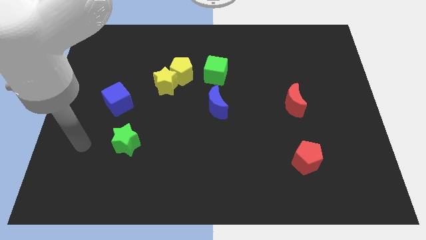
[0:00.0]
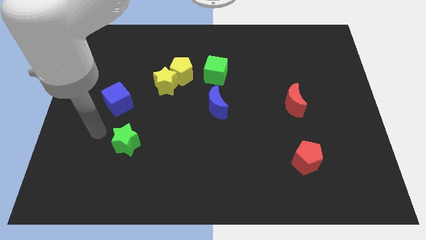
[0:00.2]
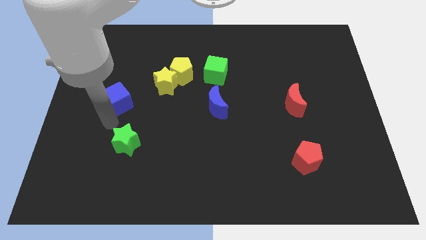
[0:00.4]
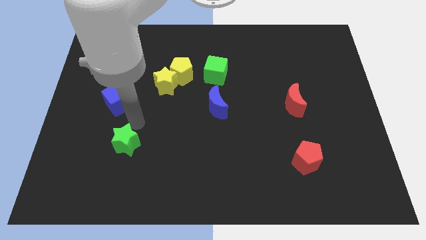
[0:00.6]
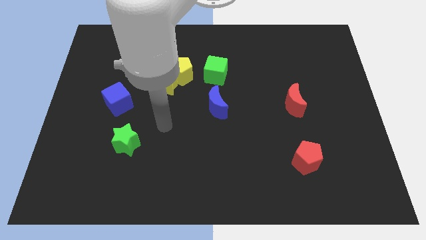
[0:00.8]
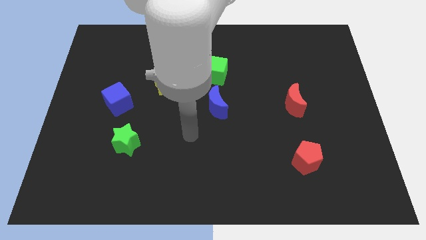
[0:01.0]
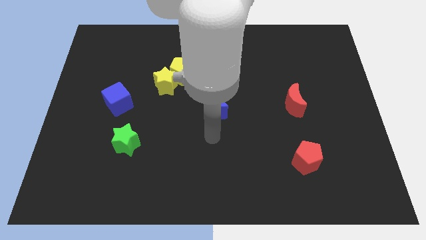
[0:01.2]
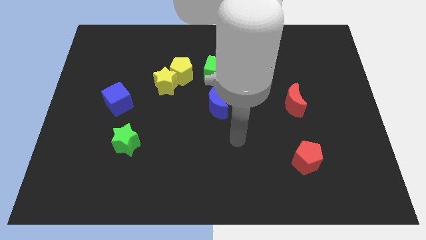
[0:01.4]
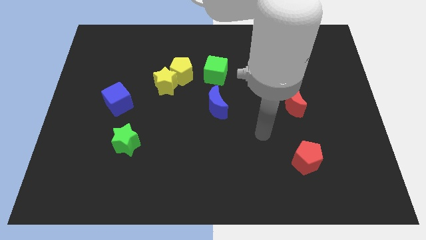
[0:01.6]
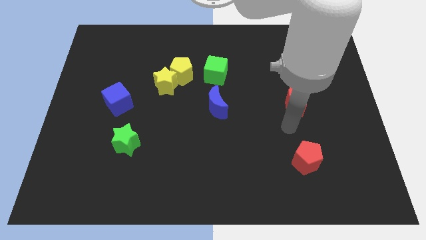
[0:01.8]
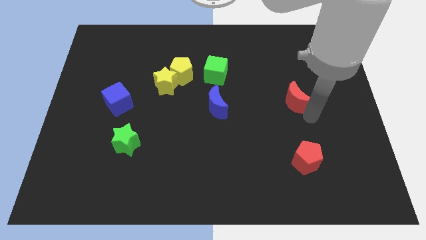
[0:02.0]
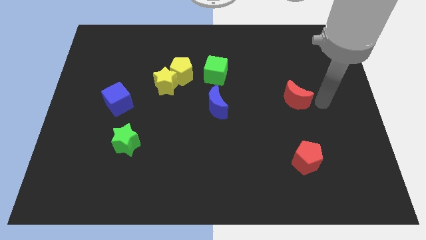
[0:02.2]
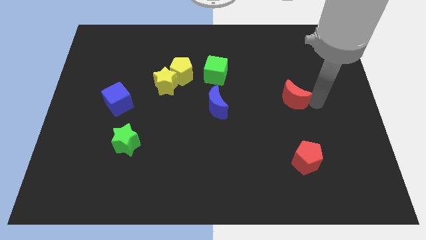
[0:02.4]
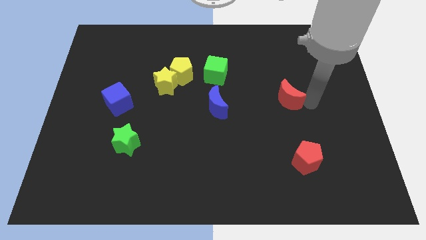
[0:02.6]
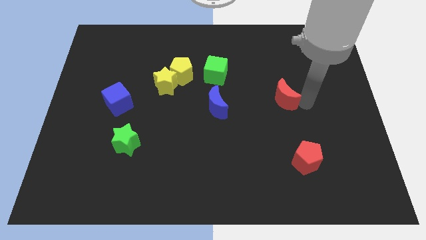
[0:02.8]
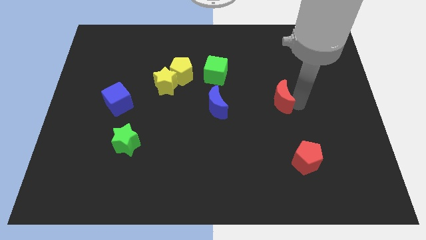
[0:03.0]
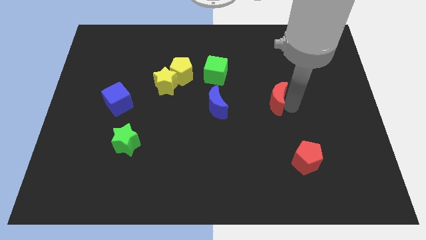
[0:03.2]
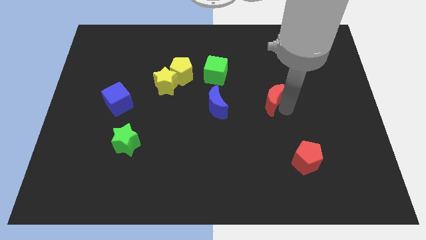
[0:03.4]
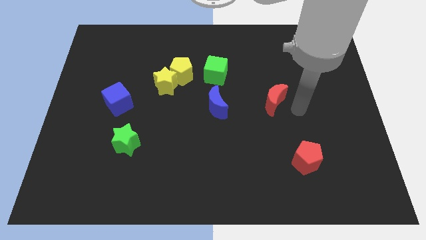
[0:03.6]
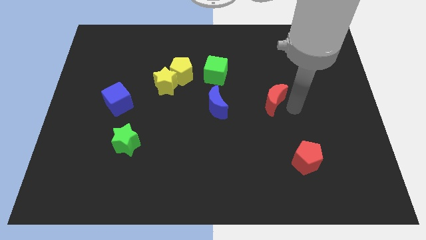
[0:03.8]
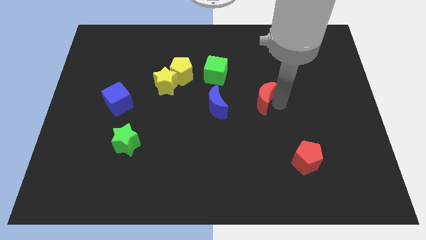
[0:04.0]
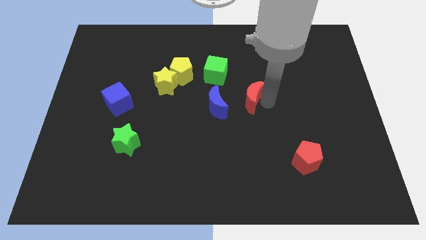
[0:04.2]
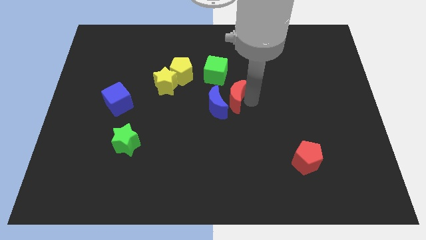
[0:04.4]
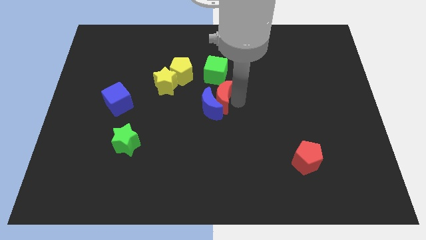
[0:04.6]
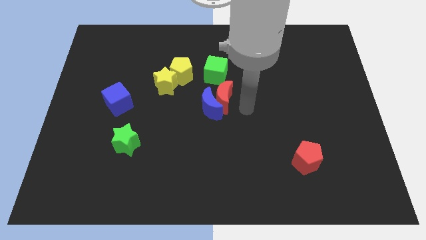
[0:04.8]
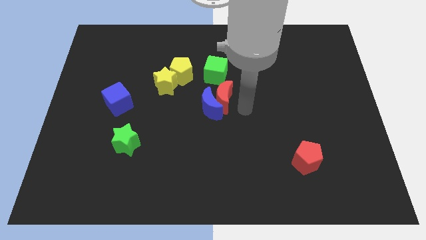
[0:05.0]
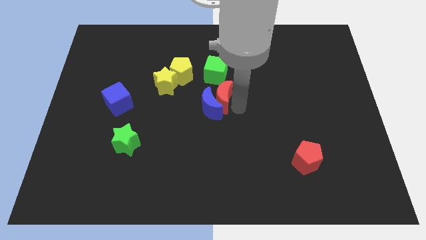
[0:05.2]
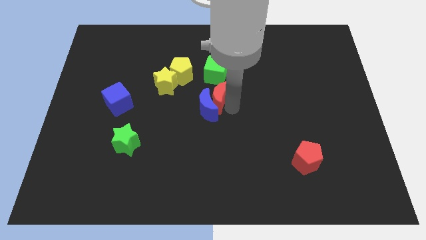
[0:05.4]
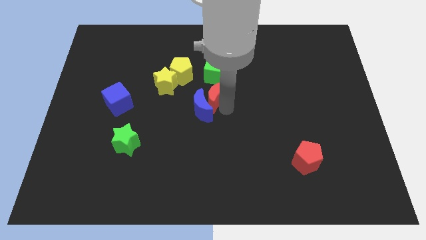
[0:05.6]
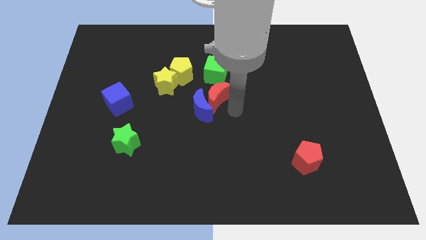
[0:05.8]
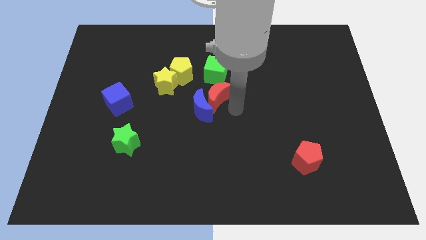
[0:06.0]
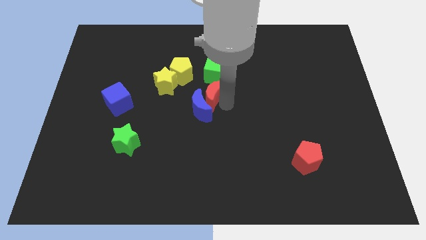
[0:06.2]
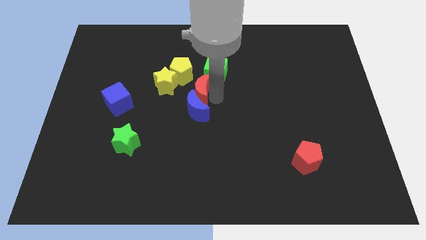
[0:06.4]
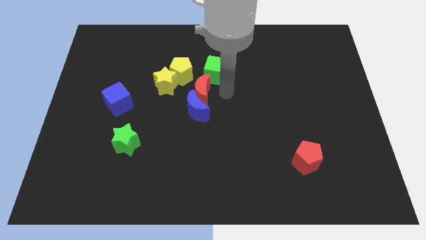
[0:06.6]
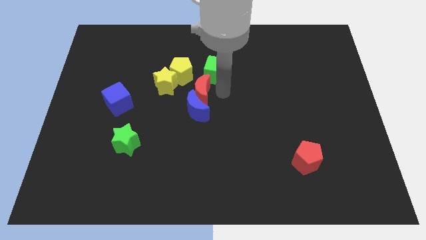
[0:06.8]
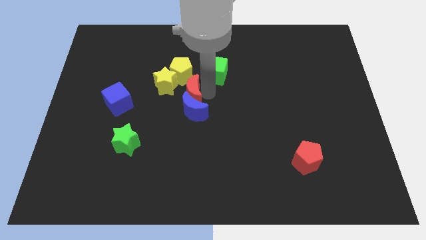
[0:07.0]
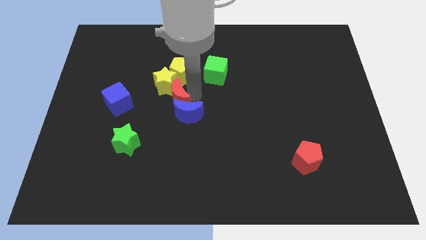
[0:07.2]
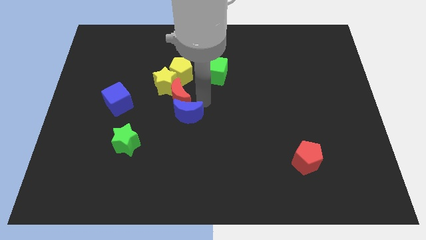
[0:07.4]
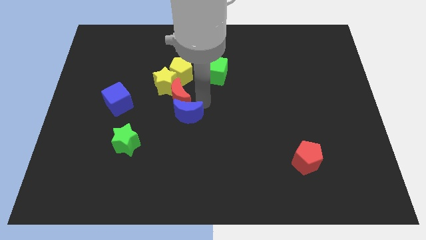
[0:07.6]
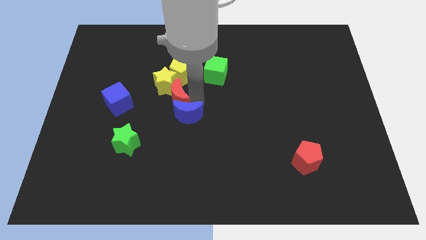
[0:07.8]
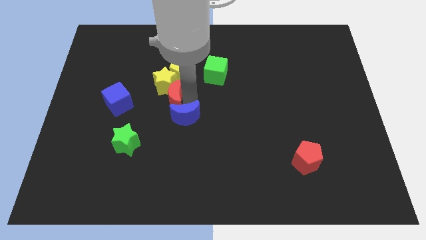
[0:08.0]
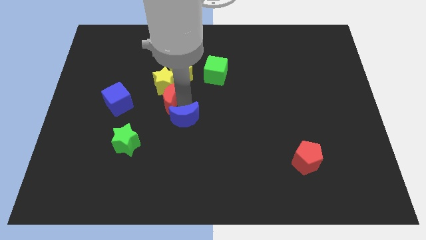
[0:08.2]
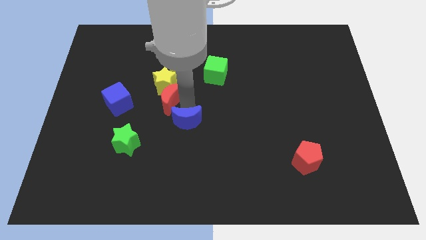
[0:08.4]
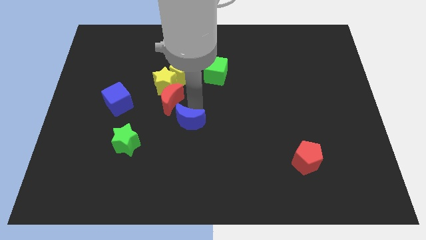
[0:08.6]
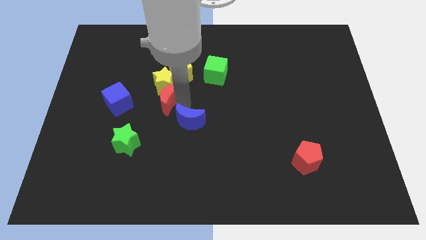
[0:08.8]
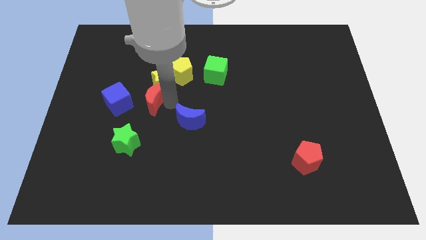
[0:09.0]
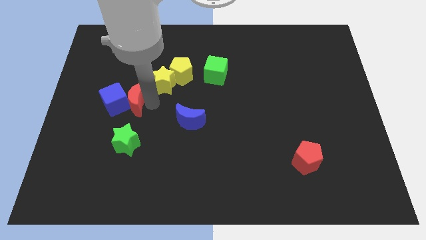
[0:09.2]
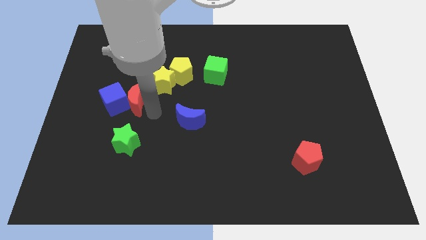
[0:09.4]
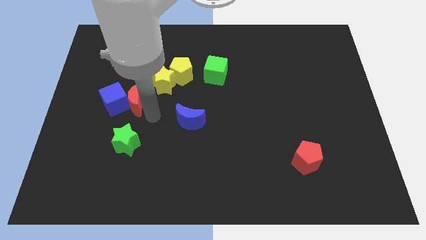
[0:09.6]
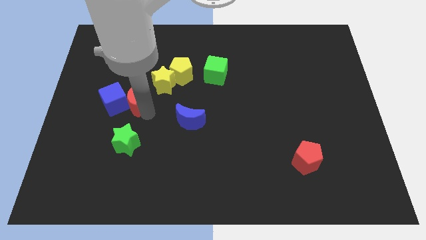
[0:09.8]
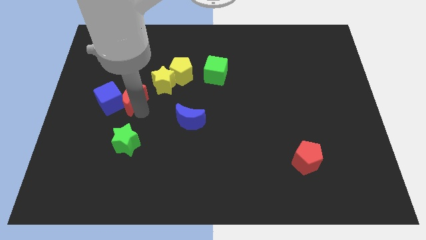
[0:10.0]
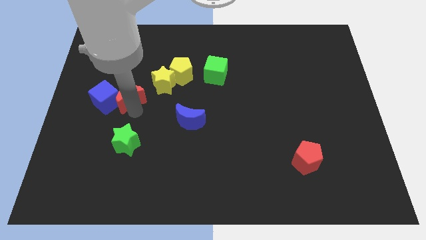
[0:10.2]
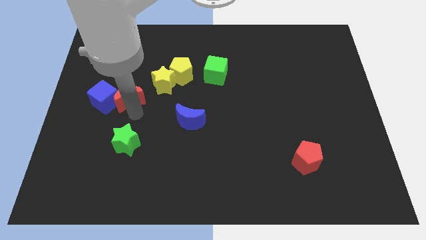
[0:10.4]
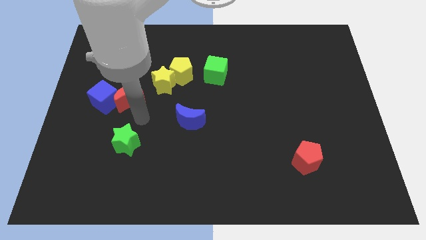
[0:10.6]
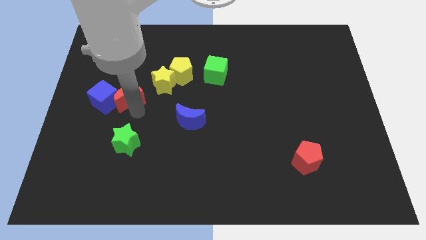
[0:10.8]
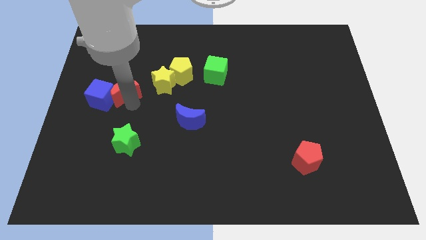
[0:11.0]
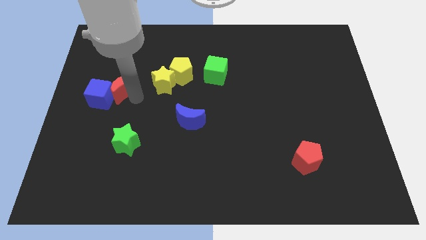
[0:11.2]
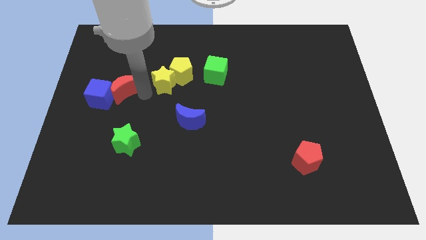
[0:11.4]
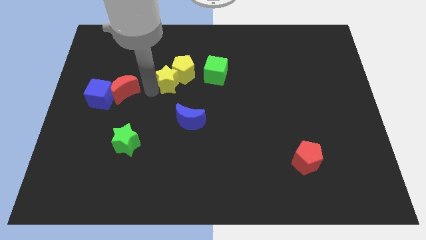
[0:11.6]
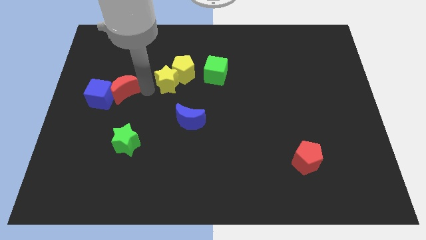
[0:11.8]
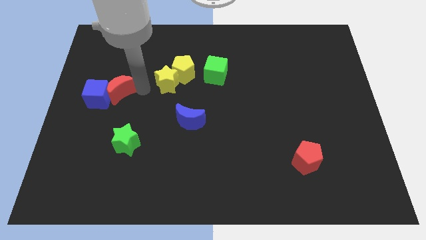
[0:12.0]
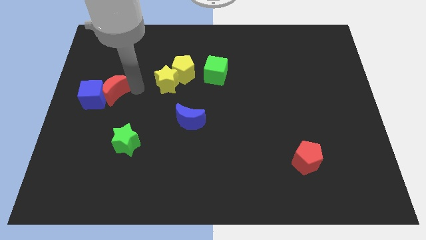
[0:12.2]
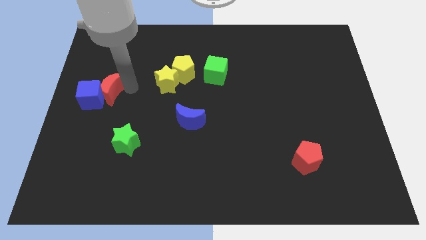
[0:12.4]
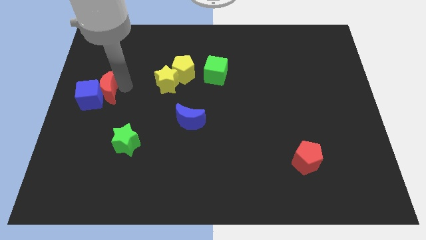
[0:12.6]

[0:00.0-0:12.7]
put the red moon to the center left
